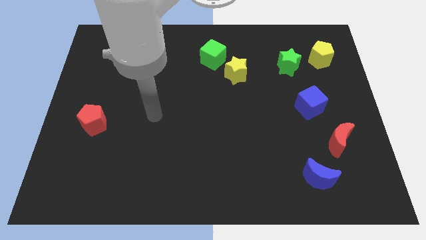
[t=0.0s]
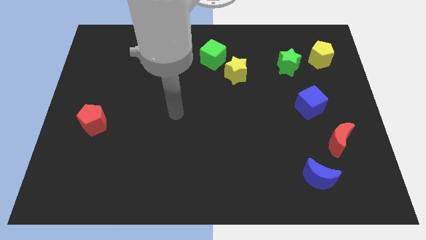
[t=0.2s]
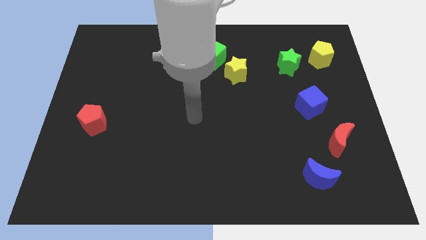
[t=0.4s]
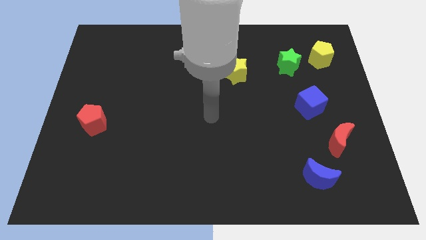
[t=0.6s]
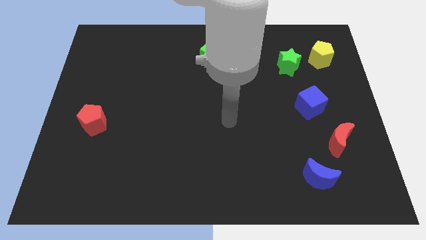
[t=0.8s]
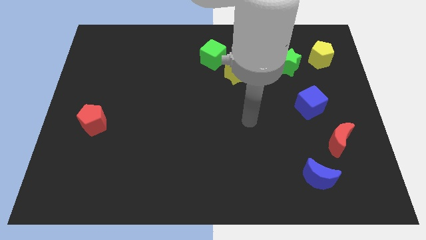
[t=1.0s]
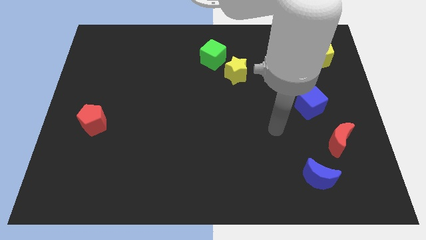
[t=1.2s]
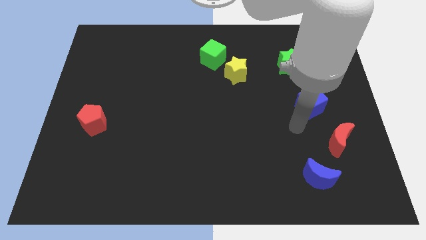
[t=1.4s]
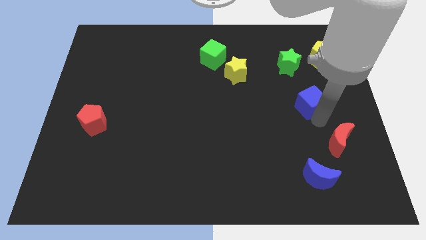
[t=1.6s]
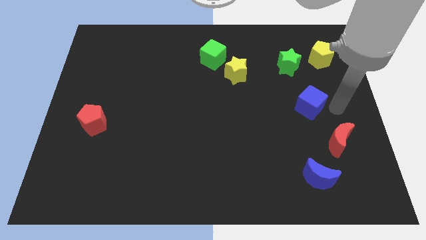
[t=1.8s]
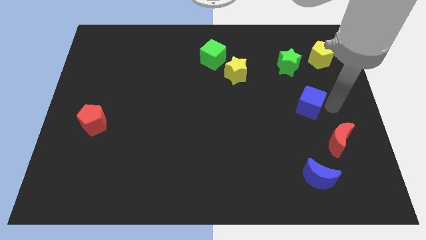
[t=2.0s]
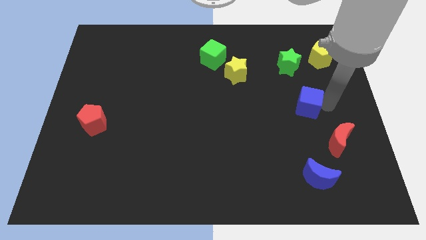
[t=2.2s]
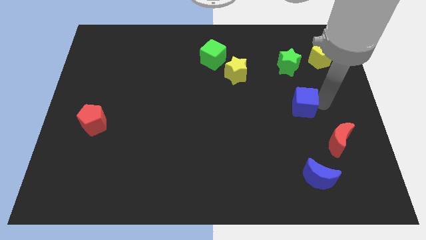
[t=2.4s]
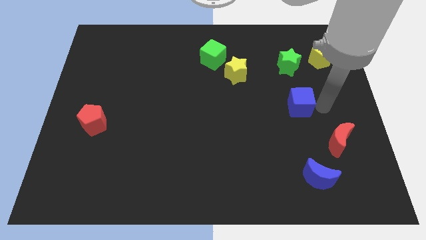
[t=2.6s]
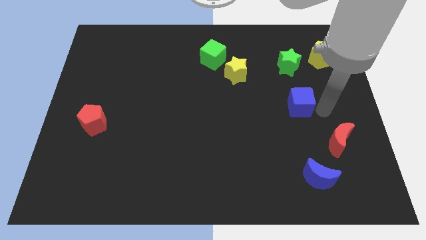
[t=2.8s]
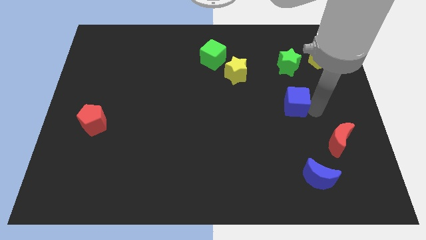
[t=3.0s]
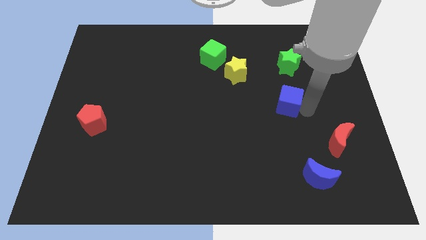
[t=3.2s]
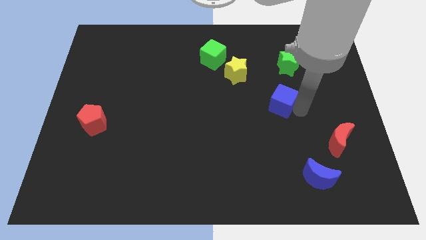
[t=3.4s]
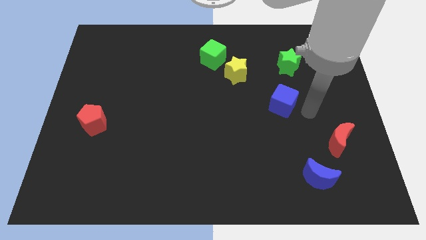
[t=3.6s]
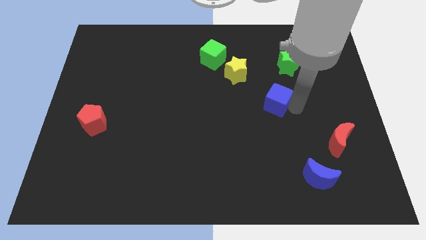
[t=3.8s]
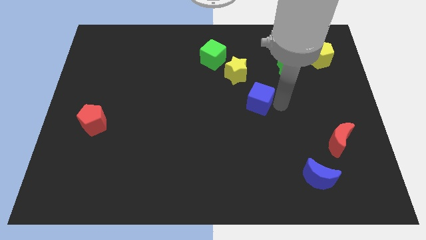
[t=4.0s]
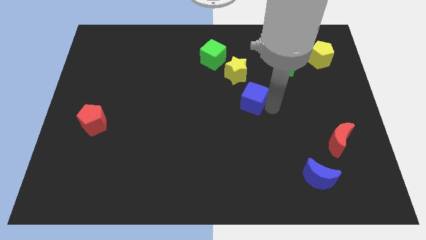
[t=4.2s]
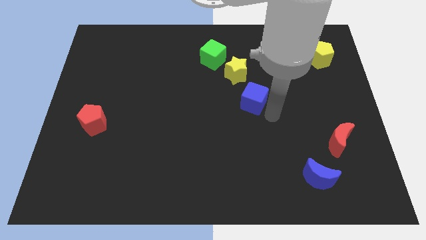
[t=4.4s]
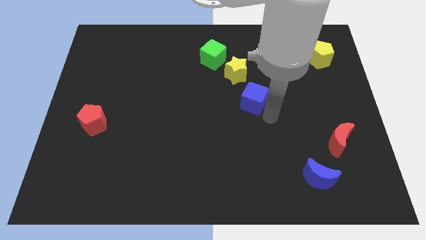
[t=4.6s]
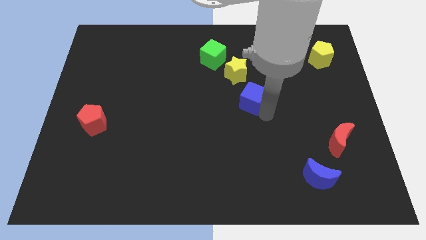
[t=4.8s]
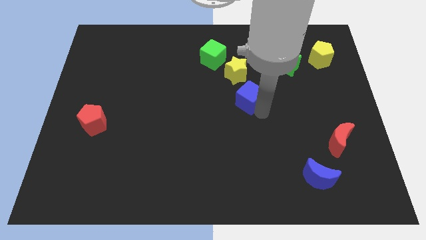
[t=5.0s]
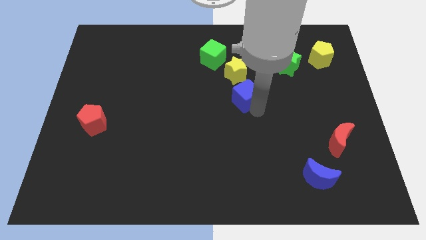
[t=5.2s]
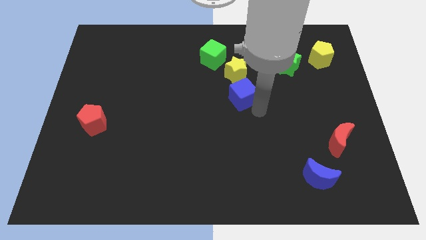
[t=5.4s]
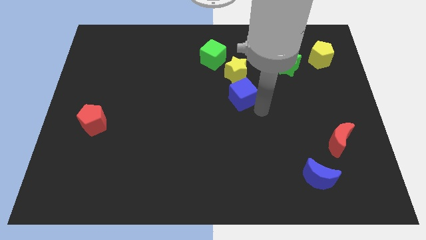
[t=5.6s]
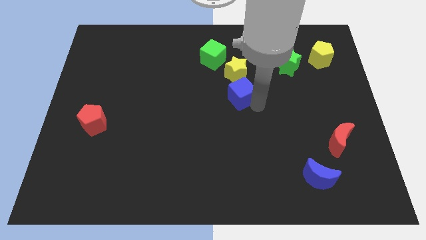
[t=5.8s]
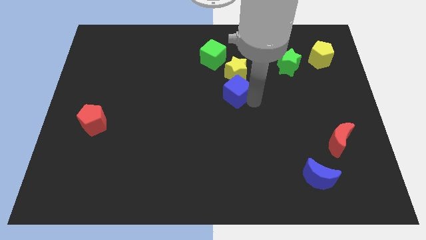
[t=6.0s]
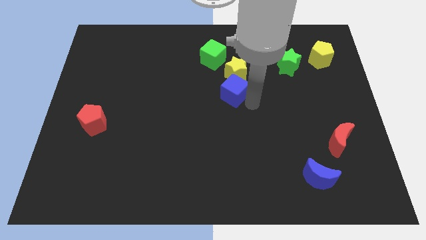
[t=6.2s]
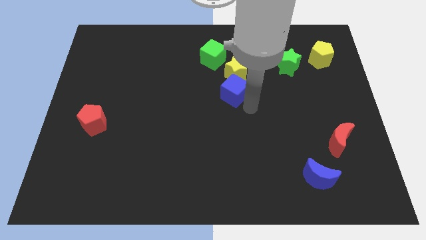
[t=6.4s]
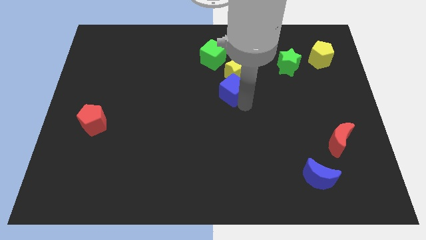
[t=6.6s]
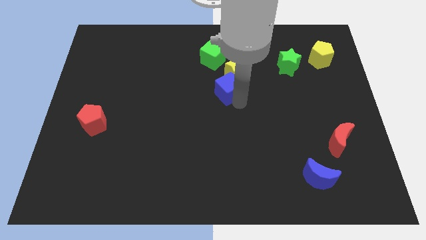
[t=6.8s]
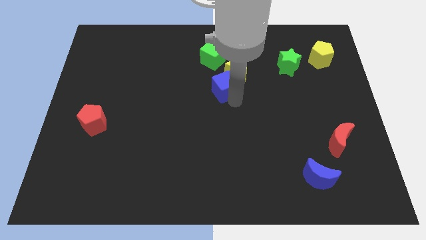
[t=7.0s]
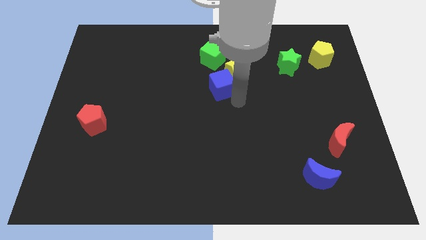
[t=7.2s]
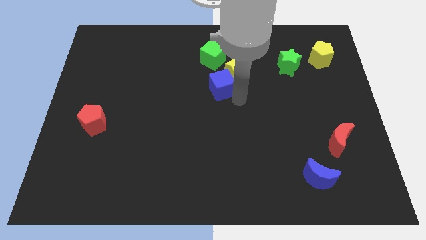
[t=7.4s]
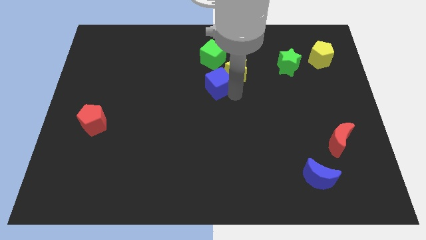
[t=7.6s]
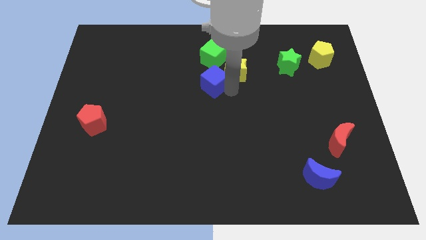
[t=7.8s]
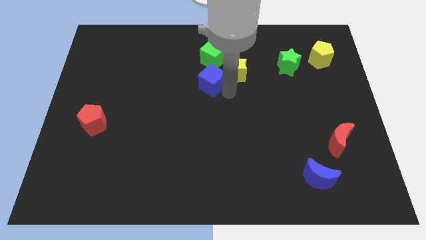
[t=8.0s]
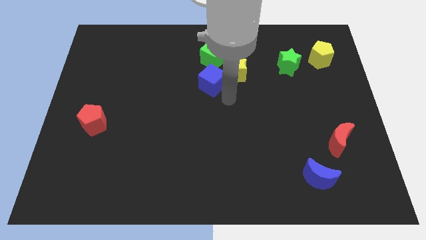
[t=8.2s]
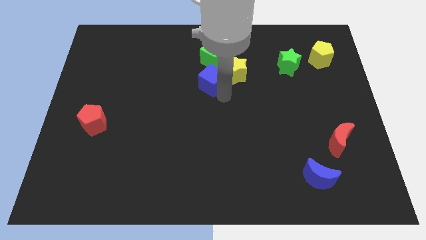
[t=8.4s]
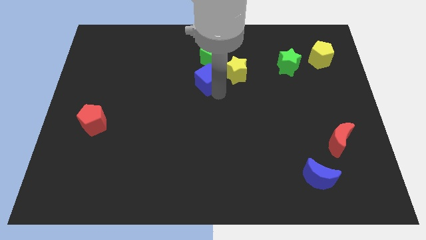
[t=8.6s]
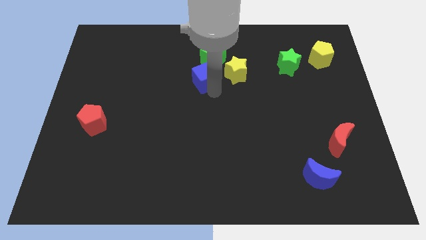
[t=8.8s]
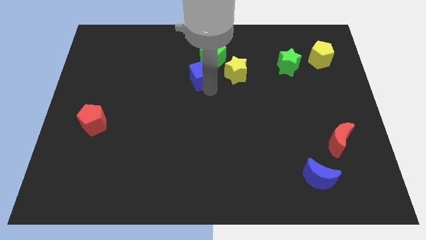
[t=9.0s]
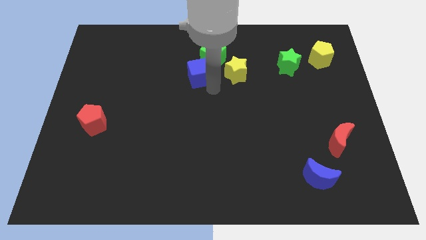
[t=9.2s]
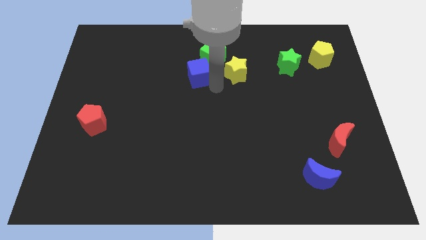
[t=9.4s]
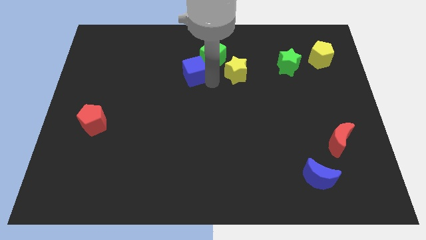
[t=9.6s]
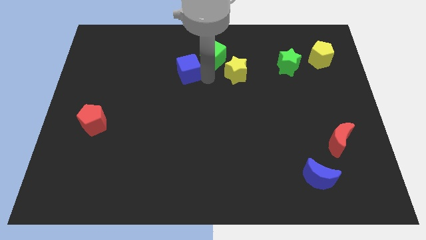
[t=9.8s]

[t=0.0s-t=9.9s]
put the blue cube to the left side of the green cube

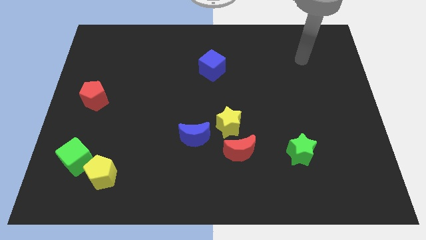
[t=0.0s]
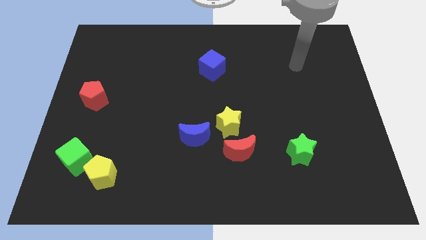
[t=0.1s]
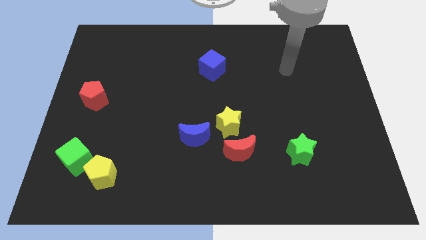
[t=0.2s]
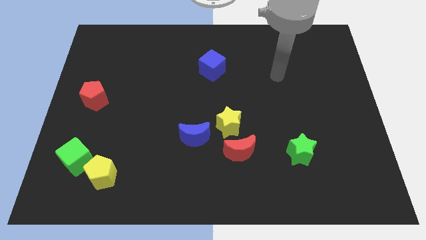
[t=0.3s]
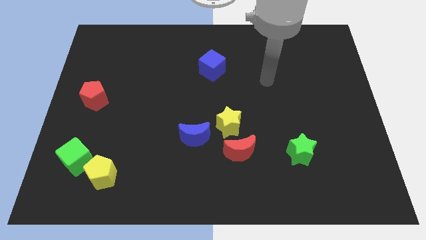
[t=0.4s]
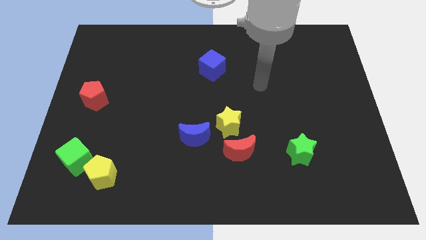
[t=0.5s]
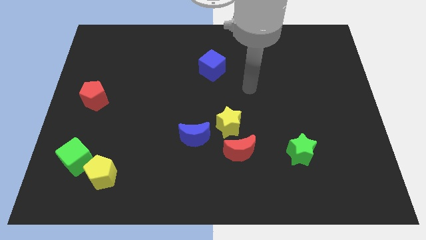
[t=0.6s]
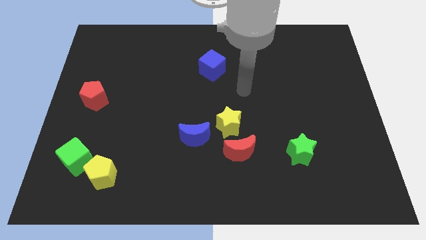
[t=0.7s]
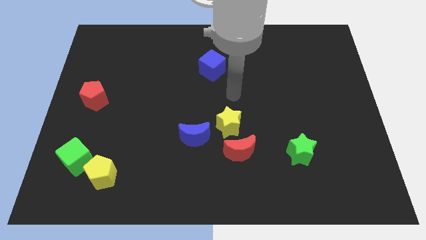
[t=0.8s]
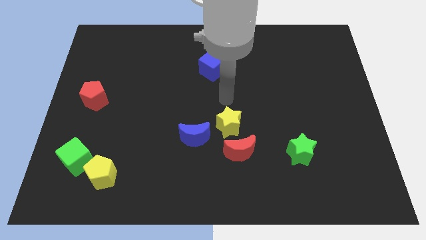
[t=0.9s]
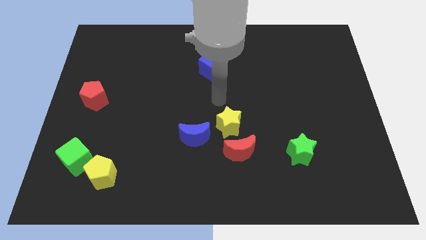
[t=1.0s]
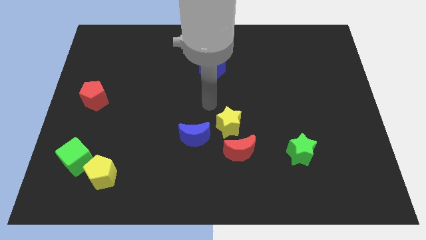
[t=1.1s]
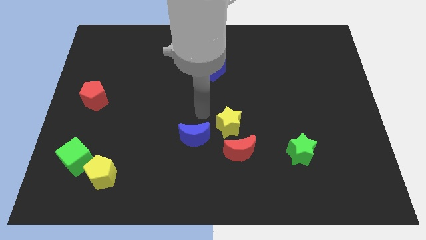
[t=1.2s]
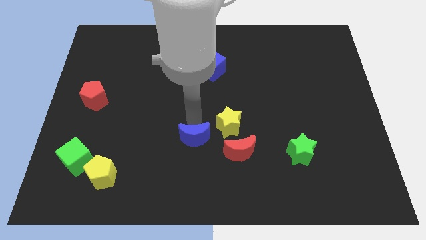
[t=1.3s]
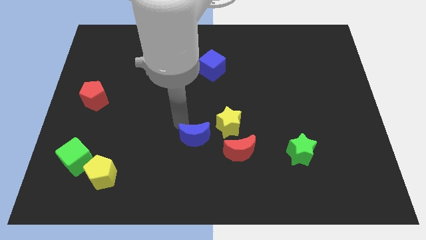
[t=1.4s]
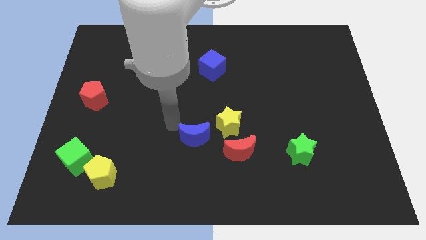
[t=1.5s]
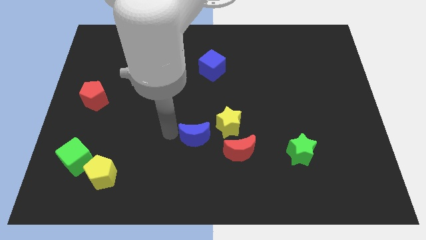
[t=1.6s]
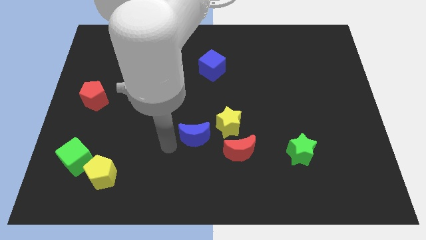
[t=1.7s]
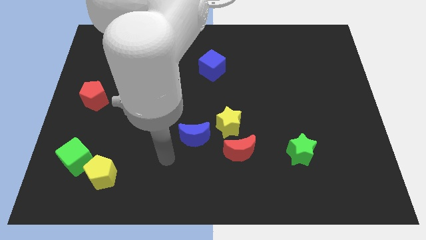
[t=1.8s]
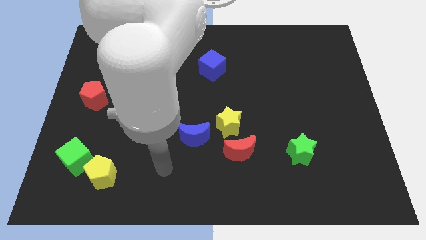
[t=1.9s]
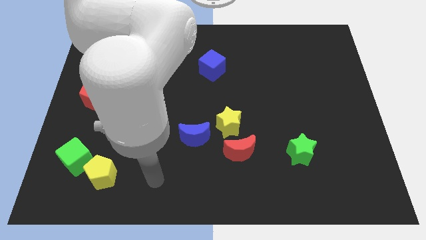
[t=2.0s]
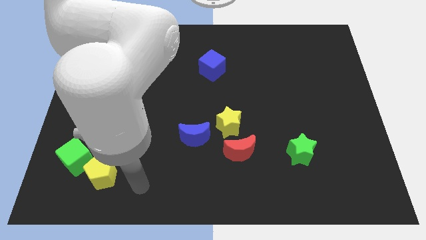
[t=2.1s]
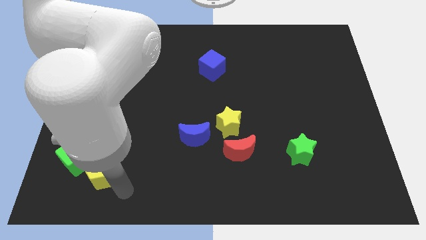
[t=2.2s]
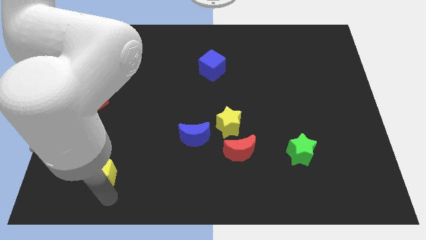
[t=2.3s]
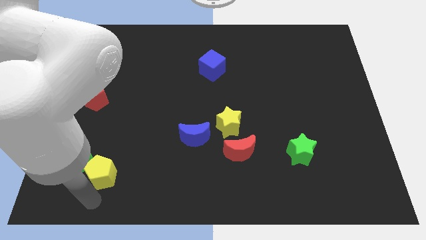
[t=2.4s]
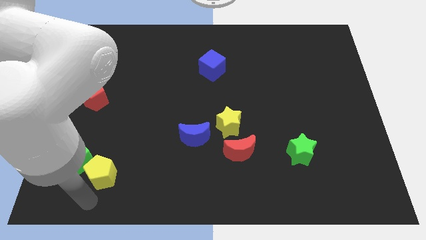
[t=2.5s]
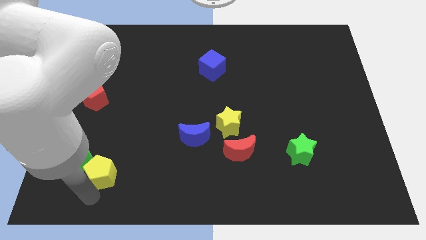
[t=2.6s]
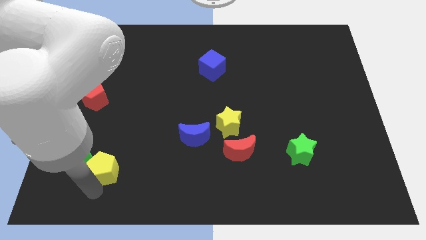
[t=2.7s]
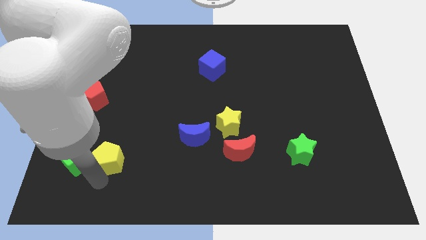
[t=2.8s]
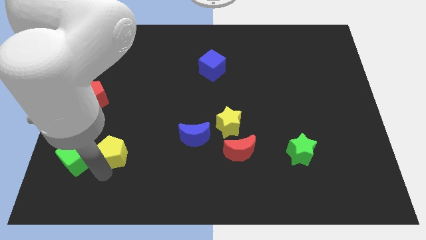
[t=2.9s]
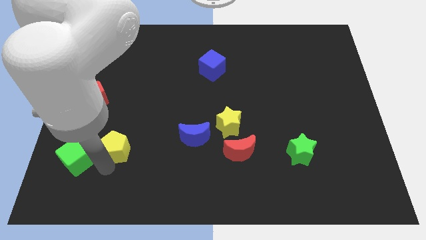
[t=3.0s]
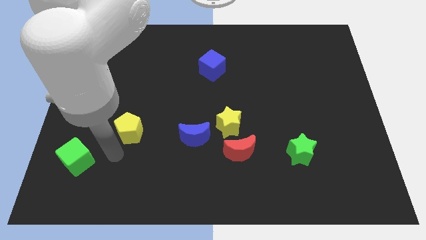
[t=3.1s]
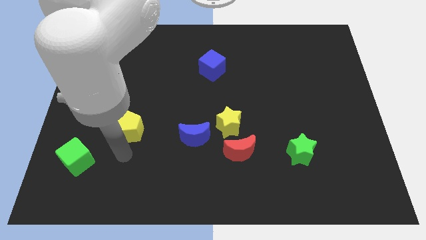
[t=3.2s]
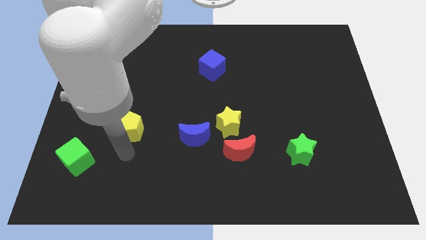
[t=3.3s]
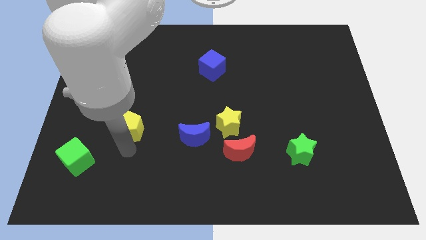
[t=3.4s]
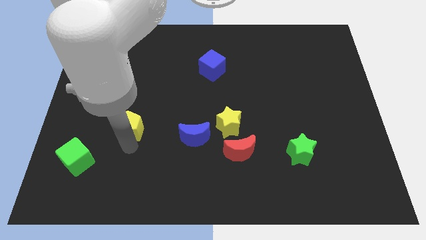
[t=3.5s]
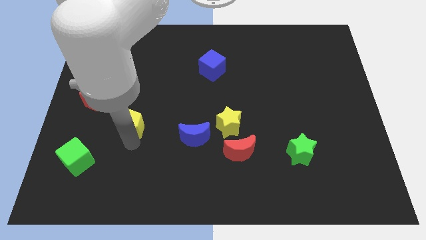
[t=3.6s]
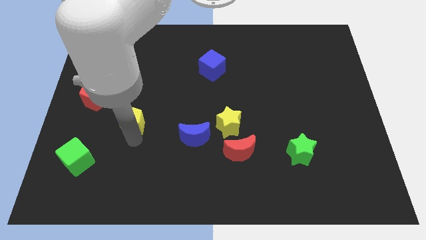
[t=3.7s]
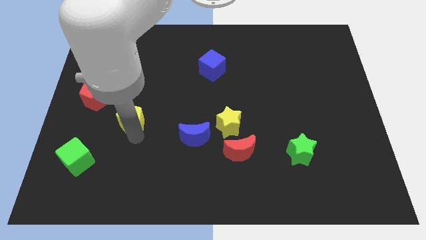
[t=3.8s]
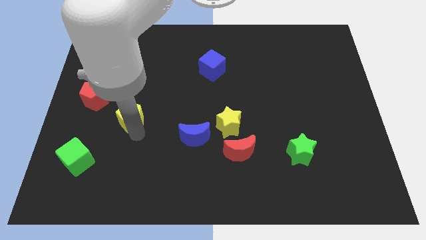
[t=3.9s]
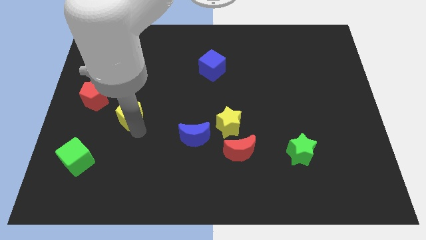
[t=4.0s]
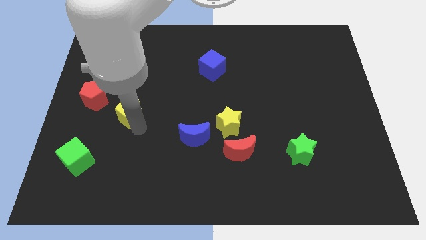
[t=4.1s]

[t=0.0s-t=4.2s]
slide the yellow pentagon just right of the red pentagon
